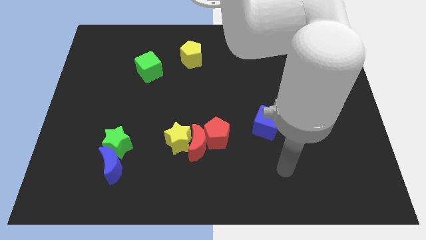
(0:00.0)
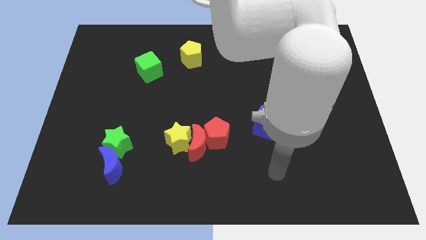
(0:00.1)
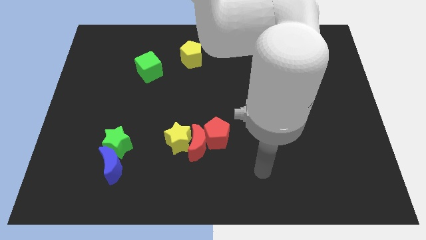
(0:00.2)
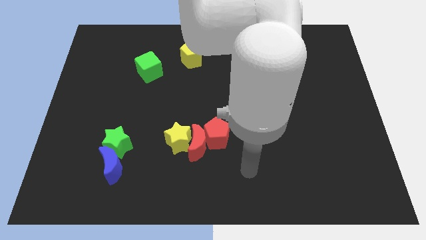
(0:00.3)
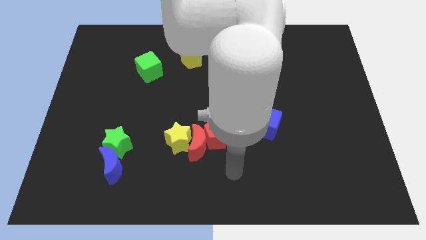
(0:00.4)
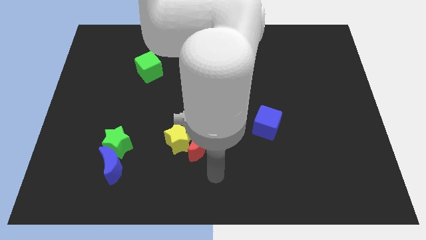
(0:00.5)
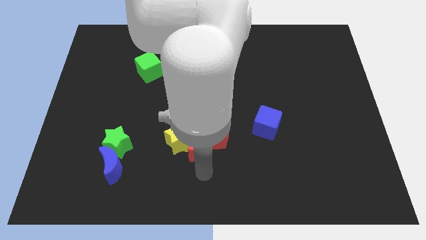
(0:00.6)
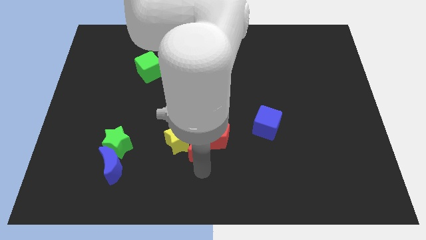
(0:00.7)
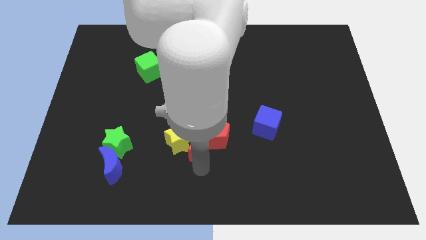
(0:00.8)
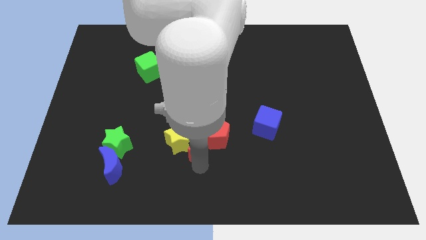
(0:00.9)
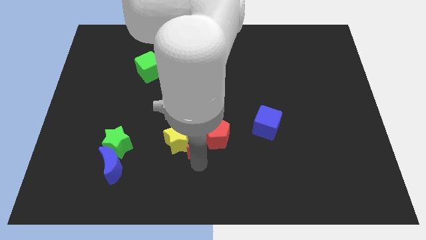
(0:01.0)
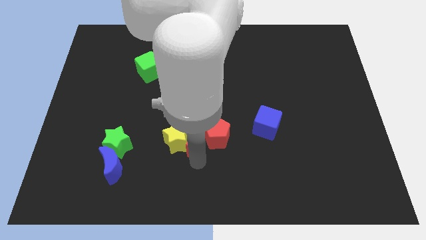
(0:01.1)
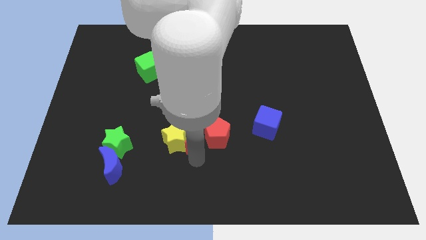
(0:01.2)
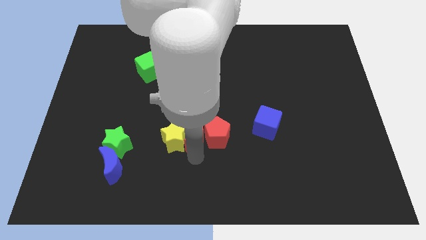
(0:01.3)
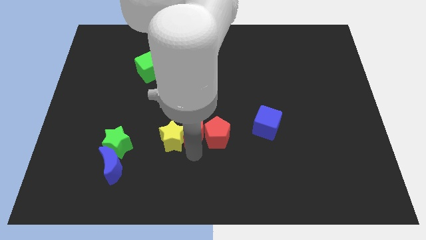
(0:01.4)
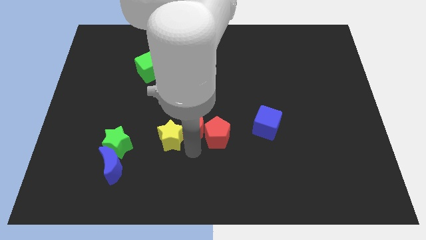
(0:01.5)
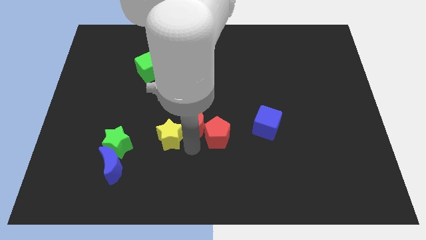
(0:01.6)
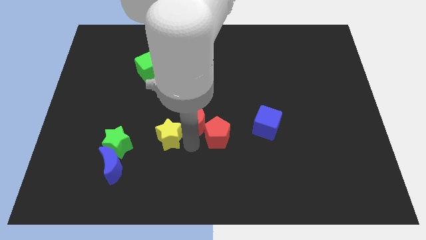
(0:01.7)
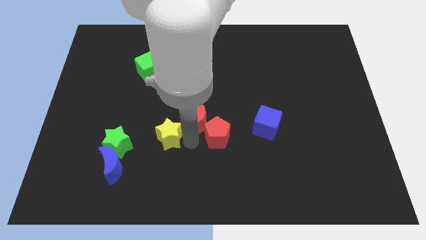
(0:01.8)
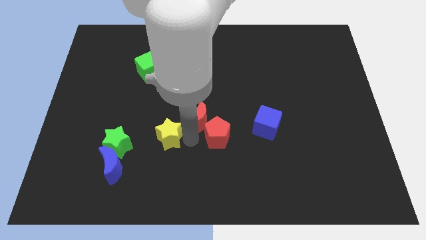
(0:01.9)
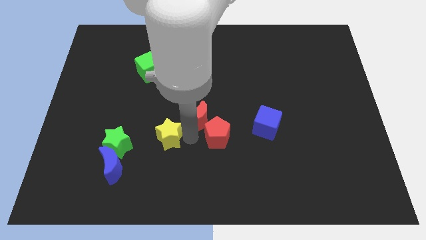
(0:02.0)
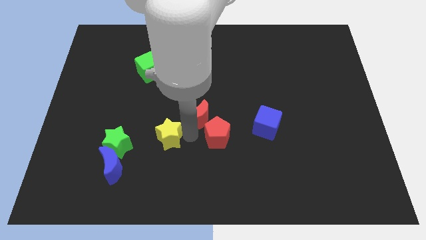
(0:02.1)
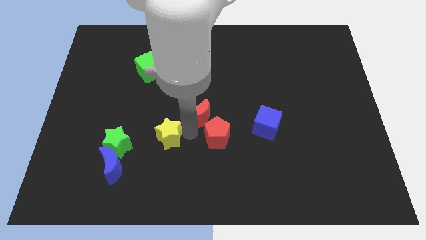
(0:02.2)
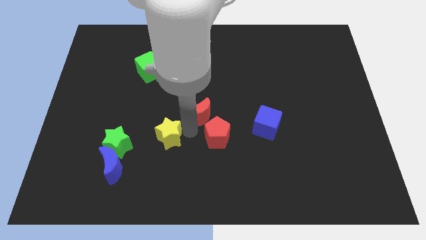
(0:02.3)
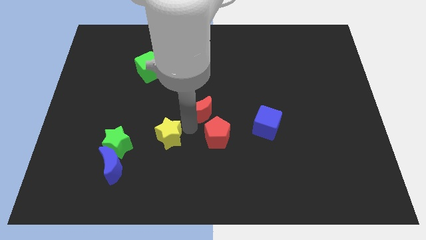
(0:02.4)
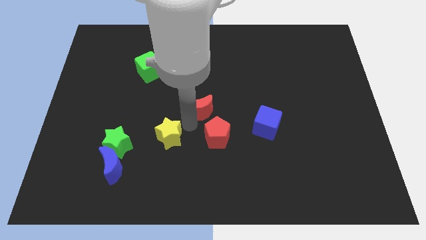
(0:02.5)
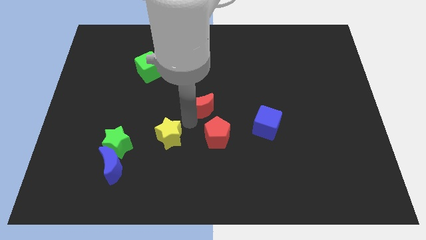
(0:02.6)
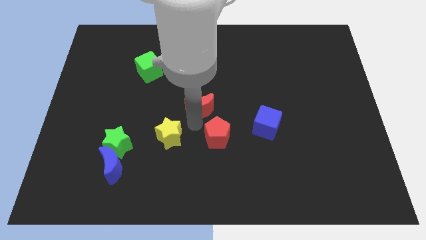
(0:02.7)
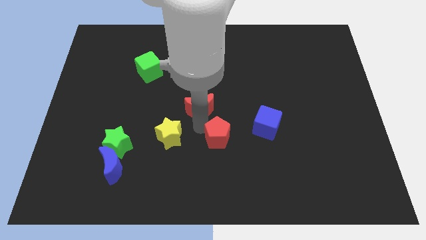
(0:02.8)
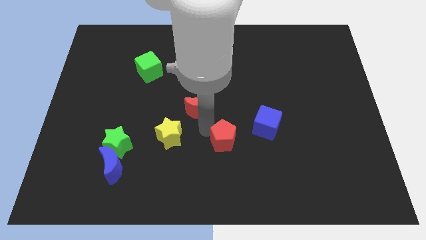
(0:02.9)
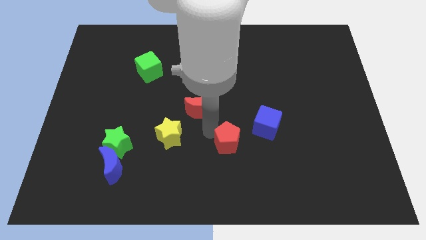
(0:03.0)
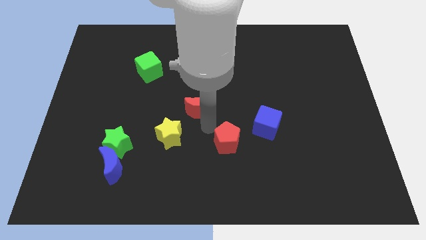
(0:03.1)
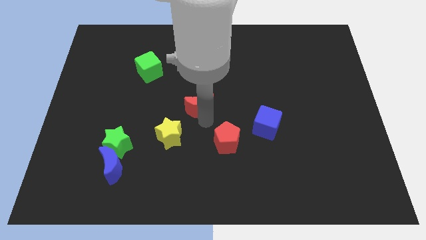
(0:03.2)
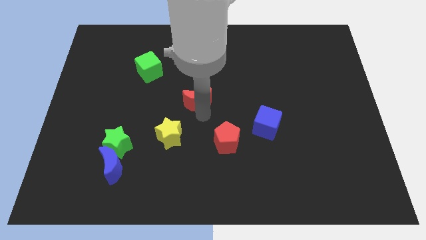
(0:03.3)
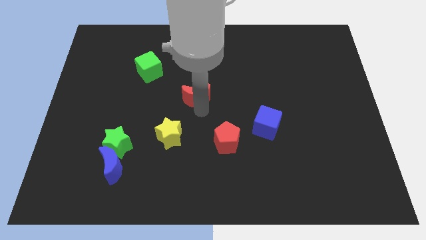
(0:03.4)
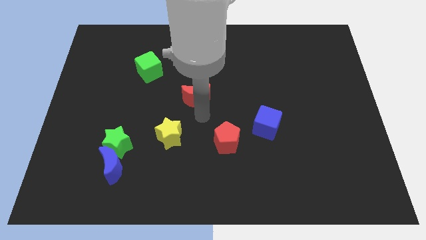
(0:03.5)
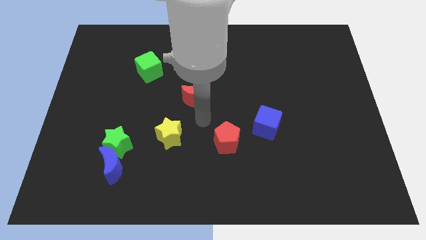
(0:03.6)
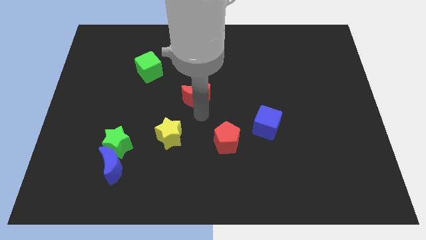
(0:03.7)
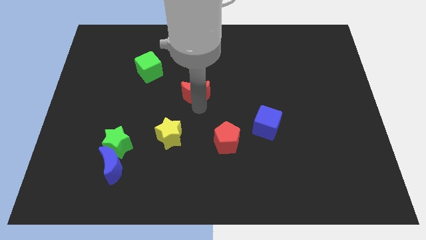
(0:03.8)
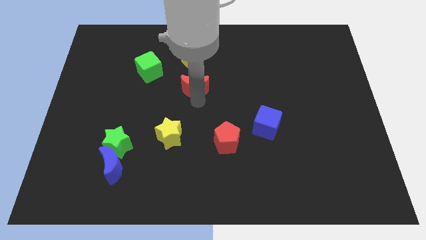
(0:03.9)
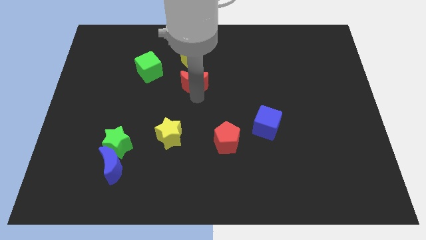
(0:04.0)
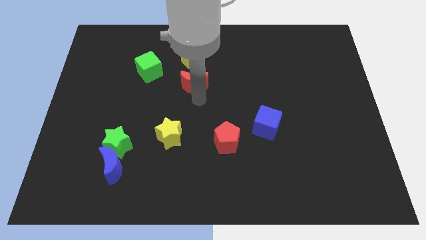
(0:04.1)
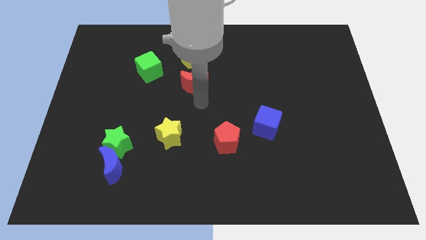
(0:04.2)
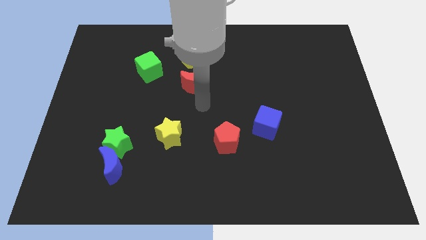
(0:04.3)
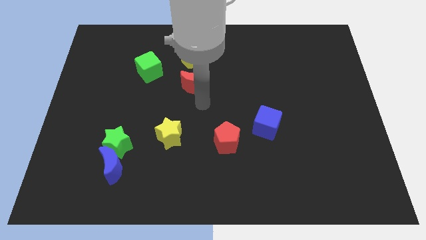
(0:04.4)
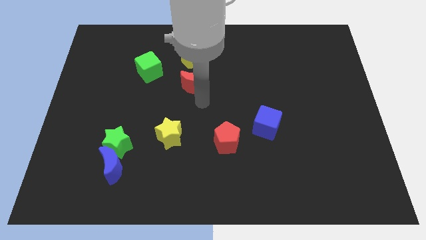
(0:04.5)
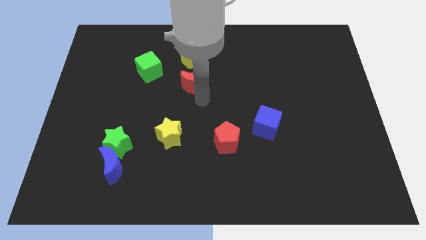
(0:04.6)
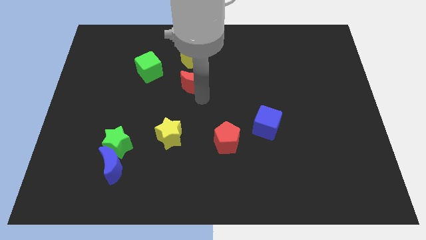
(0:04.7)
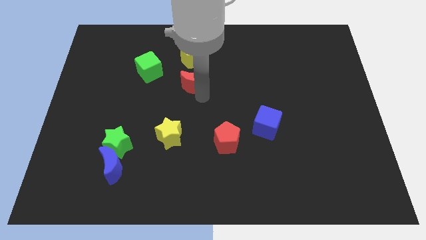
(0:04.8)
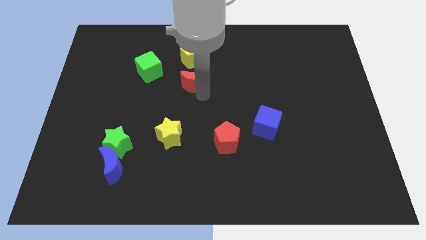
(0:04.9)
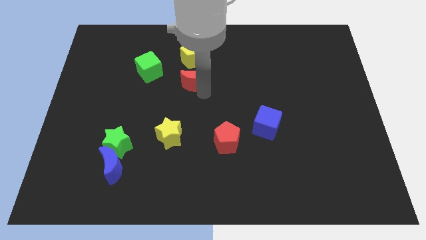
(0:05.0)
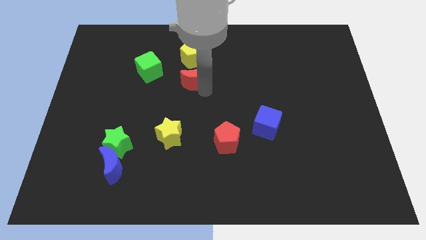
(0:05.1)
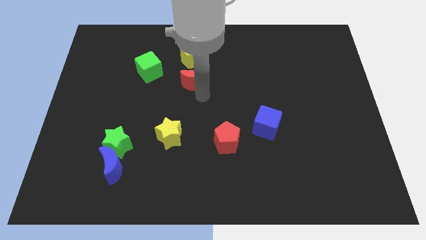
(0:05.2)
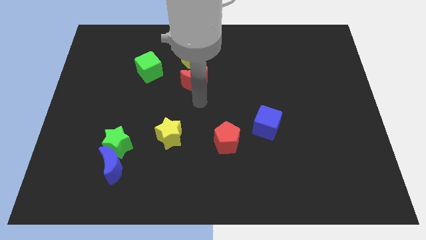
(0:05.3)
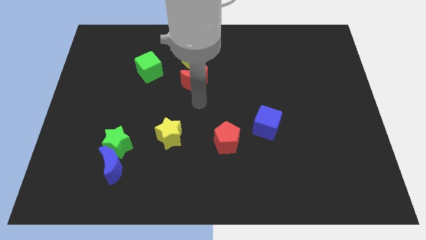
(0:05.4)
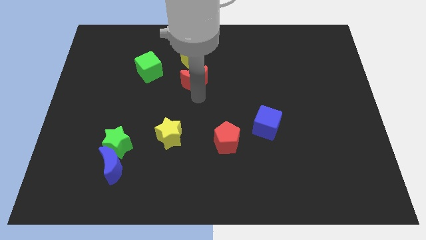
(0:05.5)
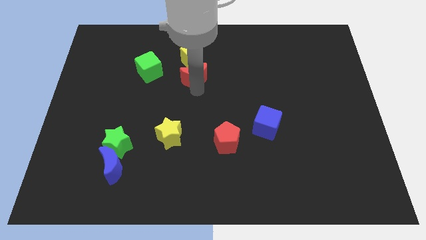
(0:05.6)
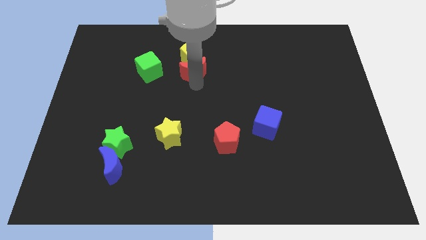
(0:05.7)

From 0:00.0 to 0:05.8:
move the red moon close to the yellow pentagon

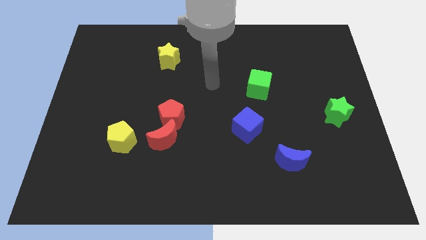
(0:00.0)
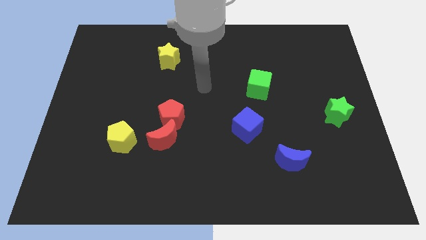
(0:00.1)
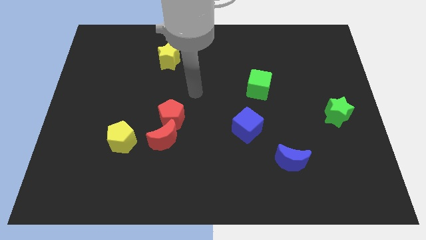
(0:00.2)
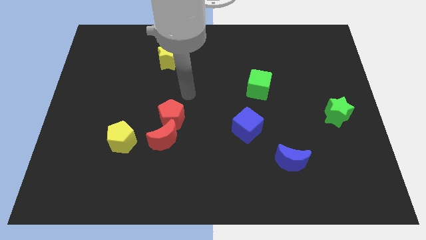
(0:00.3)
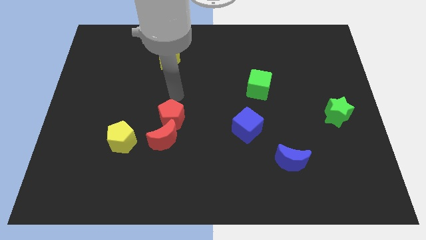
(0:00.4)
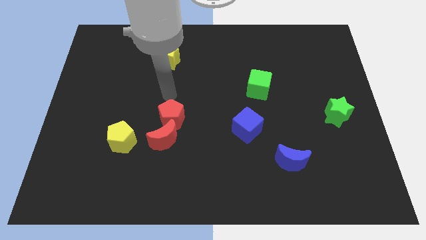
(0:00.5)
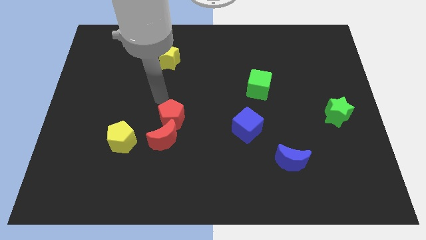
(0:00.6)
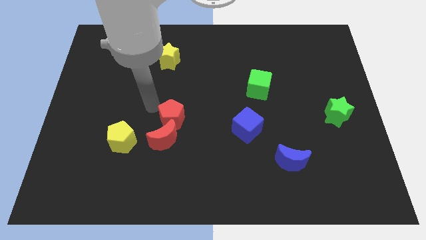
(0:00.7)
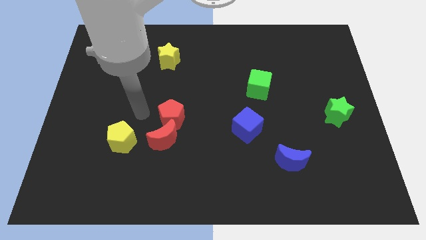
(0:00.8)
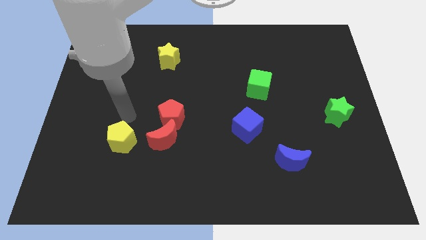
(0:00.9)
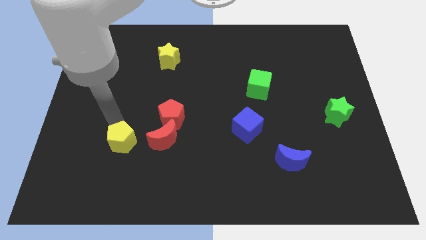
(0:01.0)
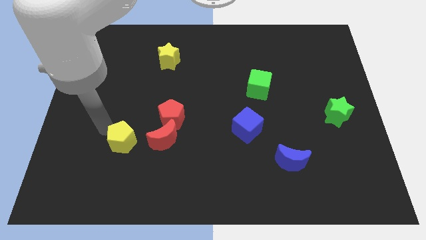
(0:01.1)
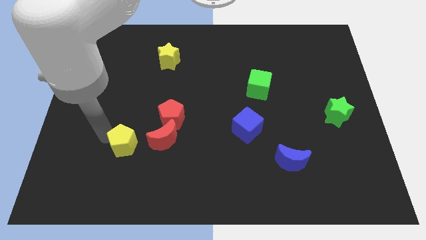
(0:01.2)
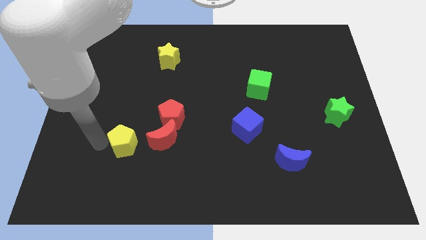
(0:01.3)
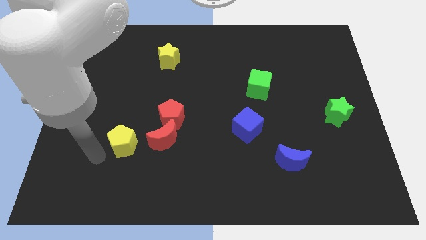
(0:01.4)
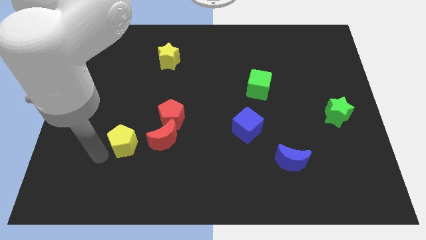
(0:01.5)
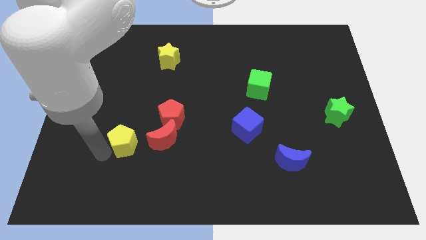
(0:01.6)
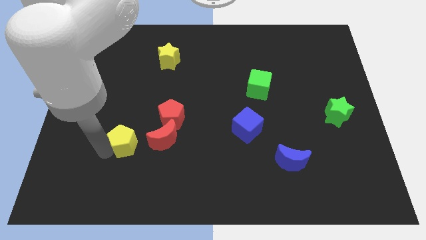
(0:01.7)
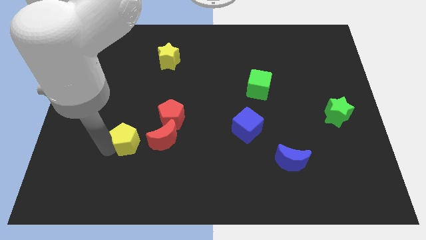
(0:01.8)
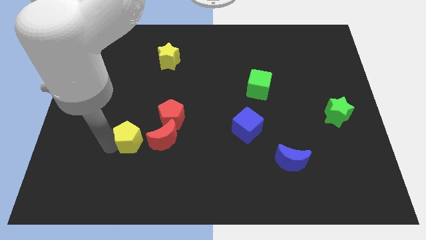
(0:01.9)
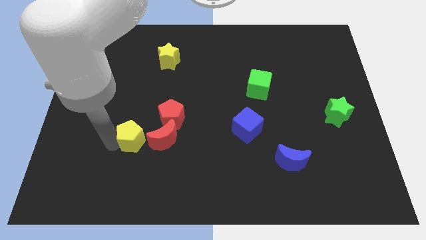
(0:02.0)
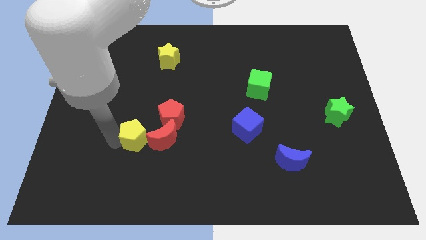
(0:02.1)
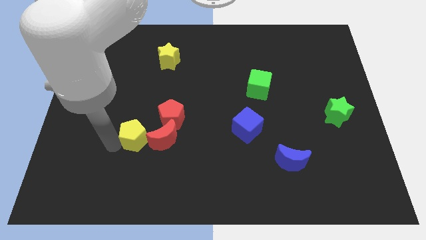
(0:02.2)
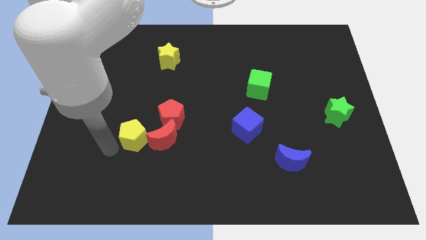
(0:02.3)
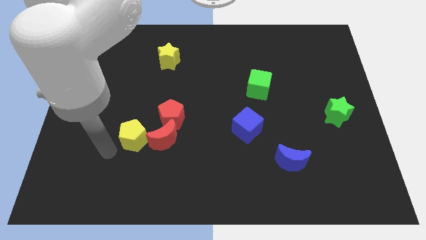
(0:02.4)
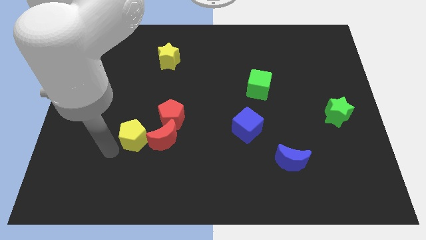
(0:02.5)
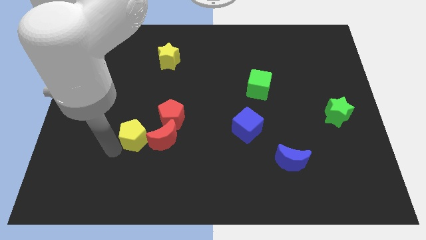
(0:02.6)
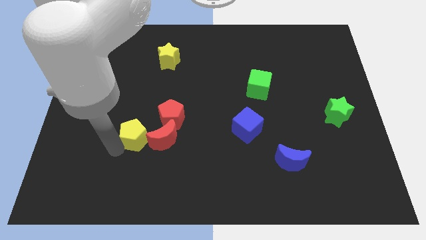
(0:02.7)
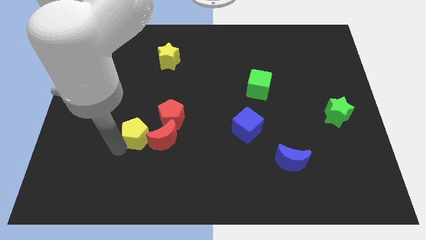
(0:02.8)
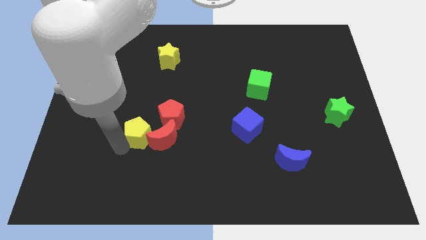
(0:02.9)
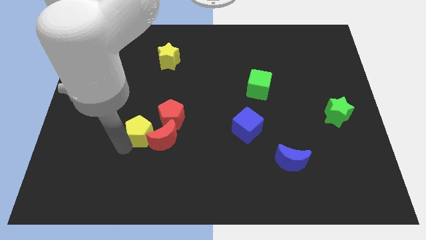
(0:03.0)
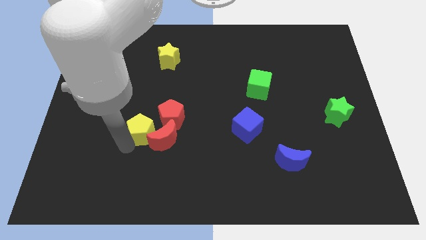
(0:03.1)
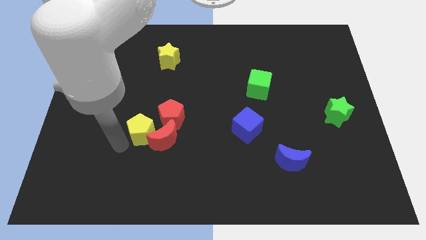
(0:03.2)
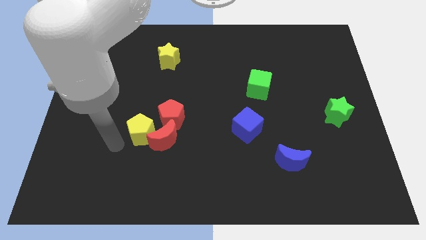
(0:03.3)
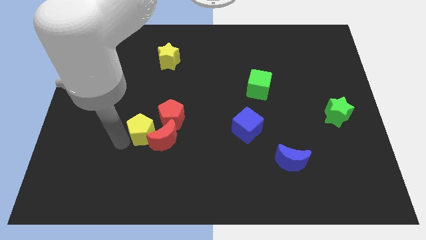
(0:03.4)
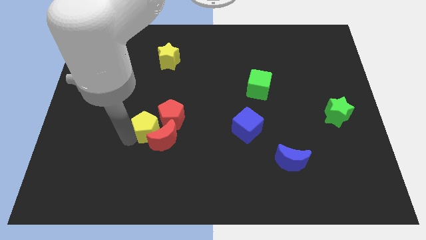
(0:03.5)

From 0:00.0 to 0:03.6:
push the yellow pentagon towards the red pentagon
